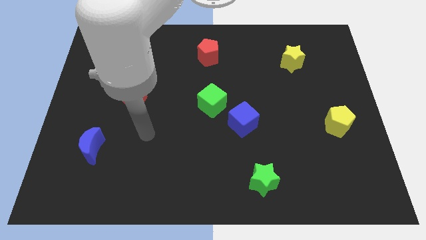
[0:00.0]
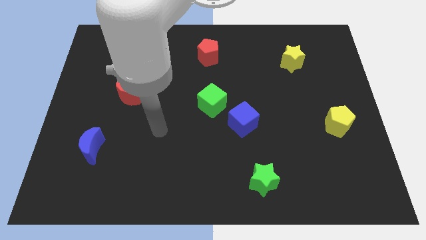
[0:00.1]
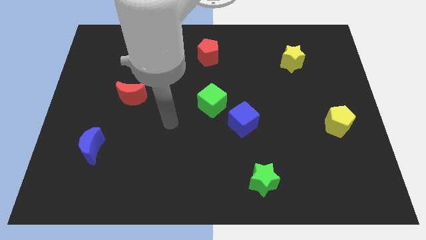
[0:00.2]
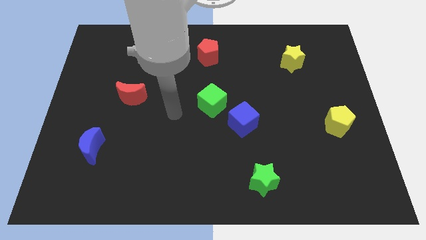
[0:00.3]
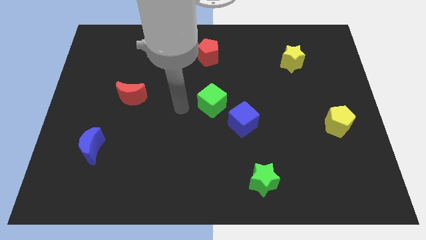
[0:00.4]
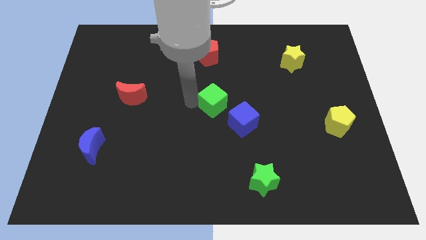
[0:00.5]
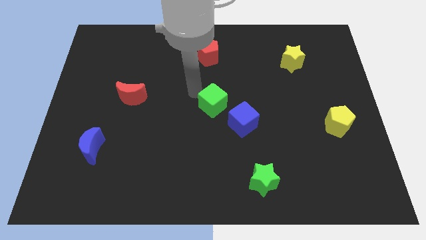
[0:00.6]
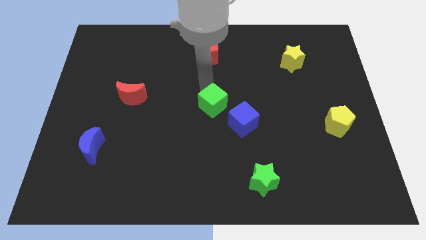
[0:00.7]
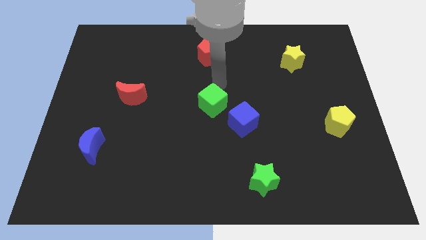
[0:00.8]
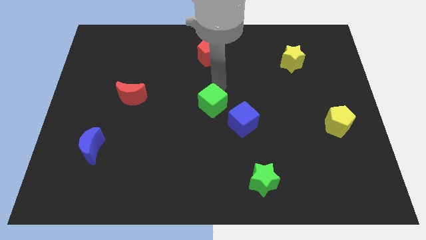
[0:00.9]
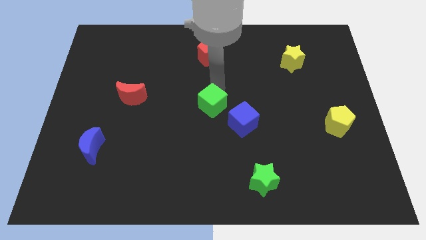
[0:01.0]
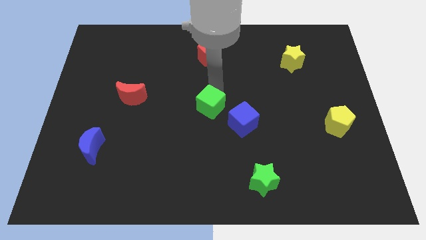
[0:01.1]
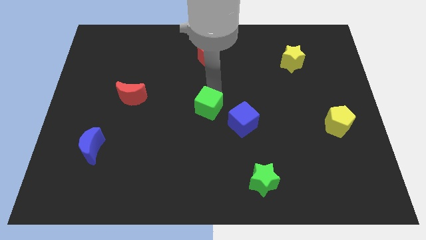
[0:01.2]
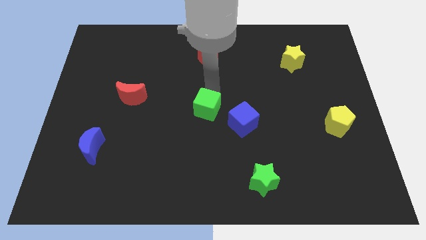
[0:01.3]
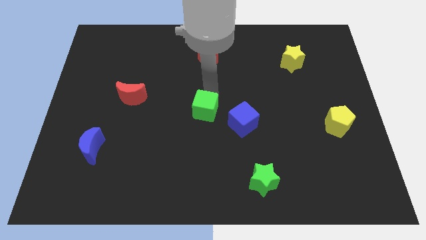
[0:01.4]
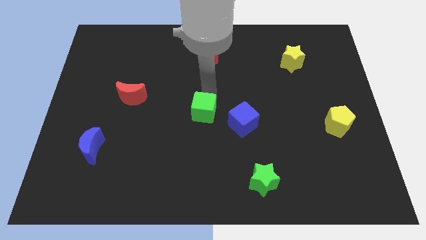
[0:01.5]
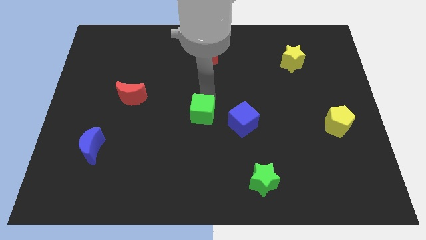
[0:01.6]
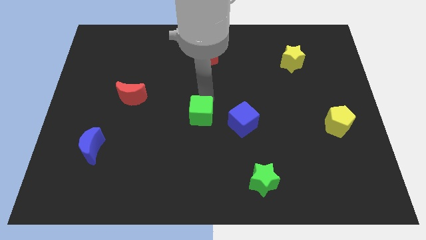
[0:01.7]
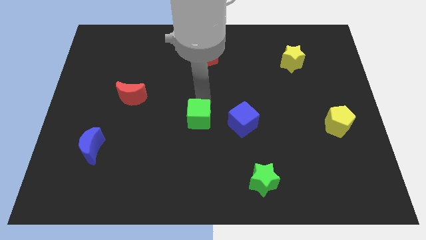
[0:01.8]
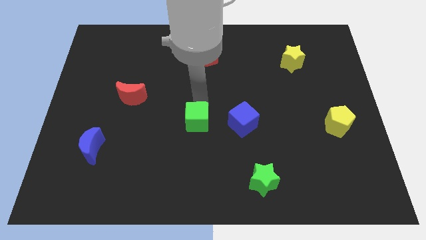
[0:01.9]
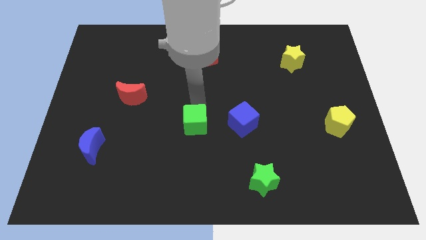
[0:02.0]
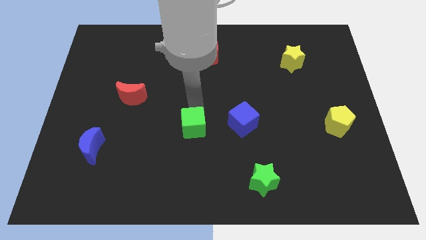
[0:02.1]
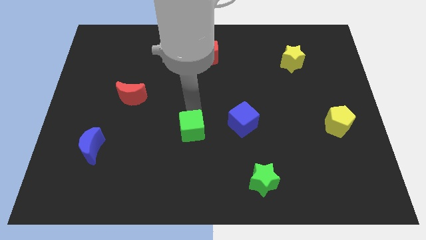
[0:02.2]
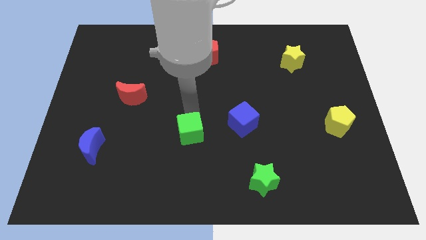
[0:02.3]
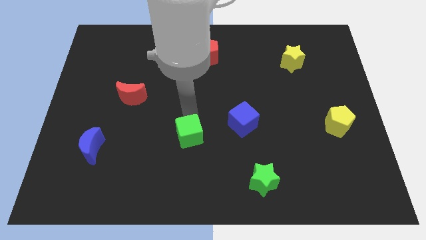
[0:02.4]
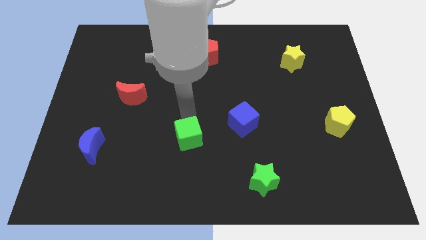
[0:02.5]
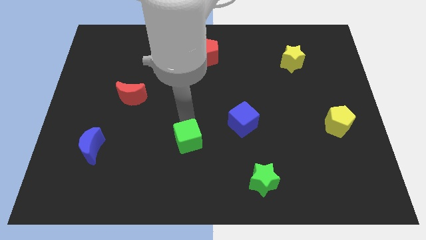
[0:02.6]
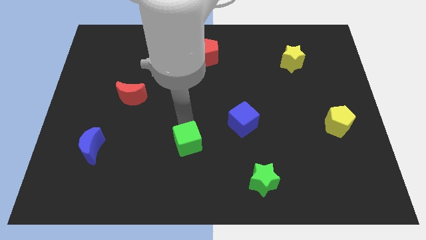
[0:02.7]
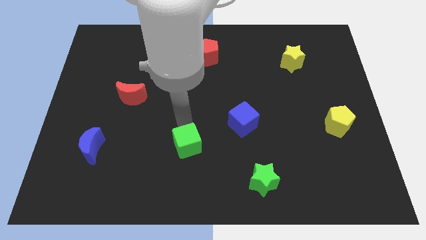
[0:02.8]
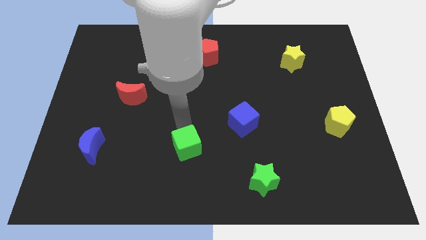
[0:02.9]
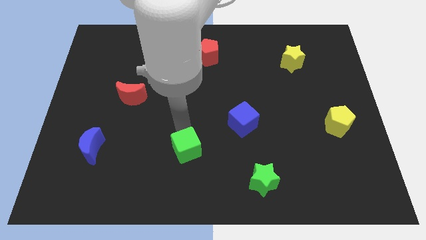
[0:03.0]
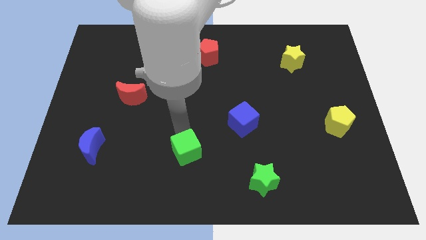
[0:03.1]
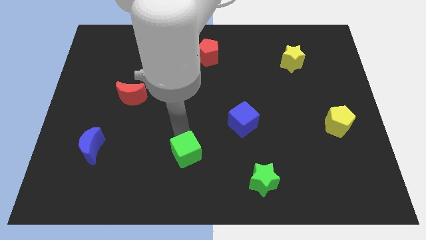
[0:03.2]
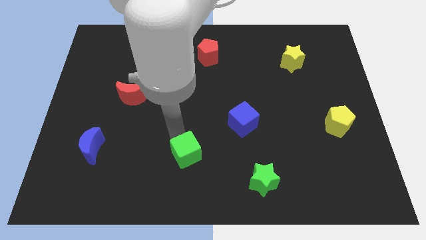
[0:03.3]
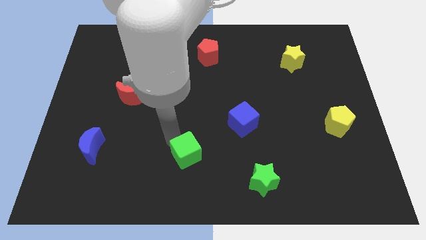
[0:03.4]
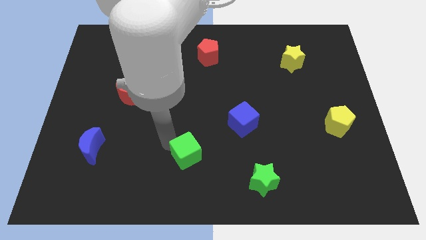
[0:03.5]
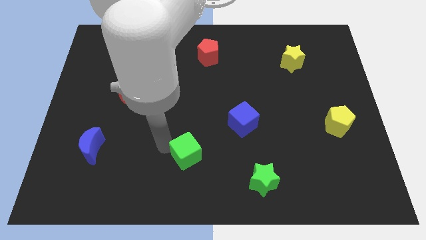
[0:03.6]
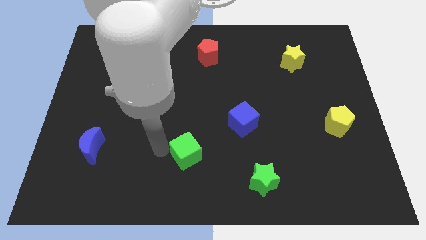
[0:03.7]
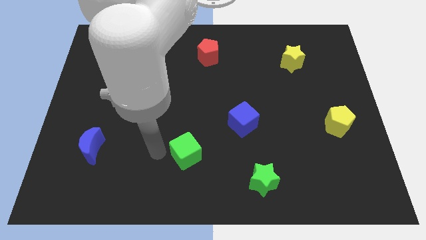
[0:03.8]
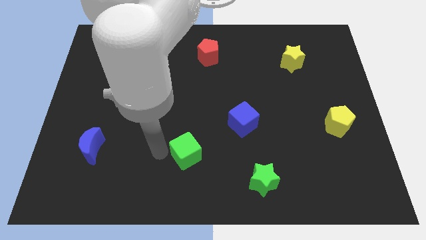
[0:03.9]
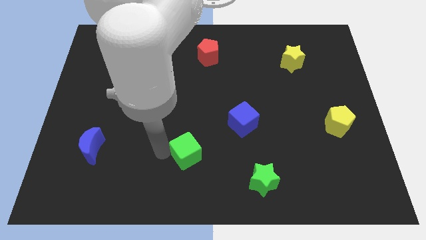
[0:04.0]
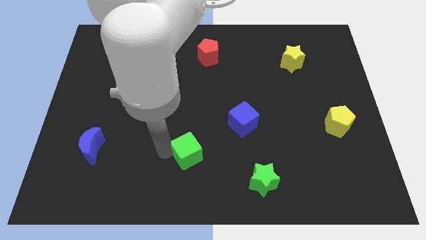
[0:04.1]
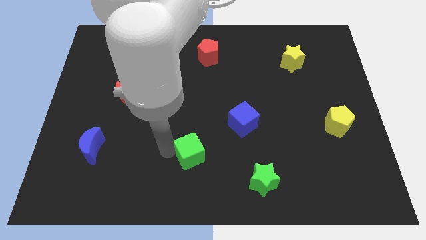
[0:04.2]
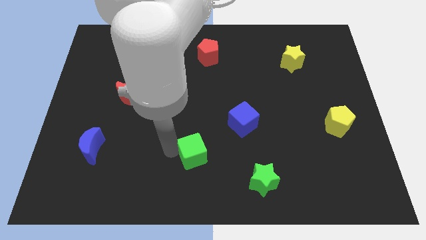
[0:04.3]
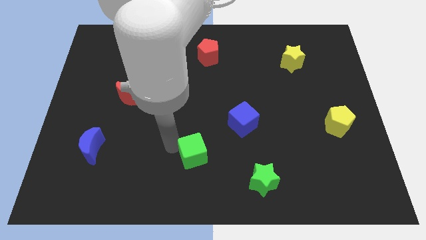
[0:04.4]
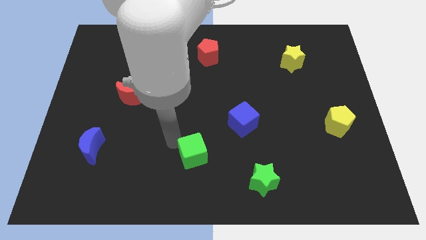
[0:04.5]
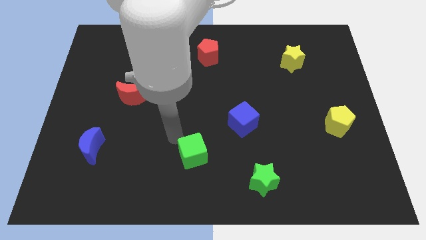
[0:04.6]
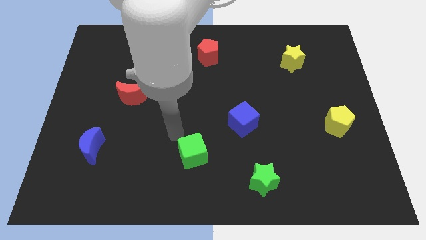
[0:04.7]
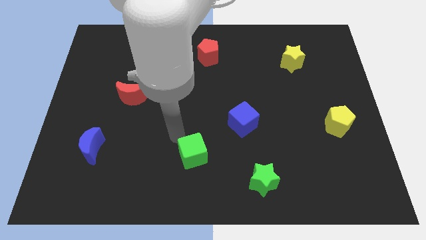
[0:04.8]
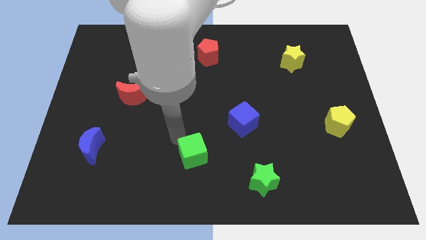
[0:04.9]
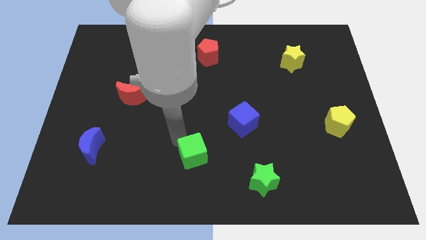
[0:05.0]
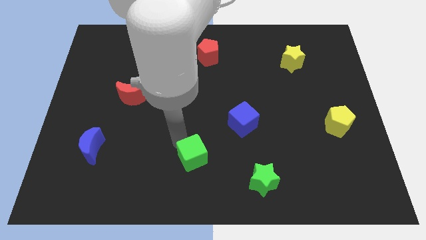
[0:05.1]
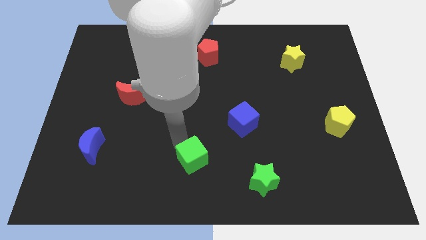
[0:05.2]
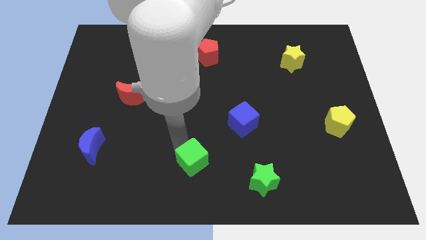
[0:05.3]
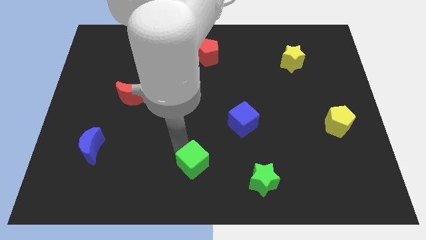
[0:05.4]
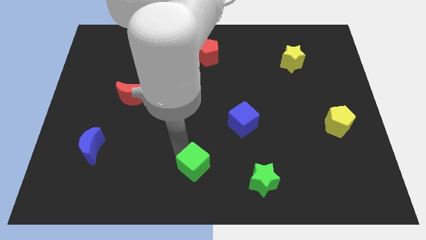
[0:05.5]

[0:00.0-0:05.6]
slide the green cube left of the green star

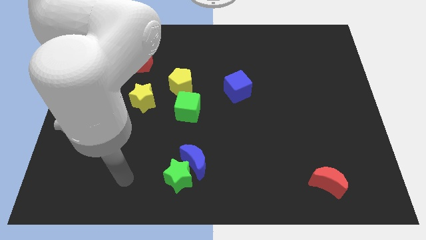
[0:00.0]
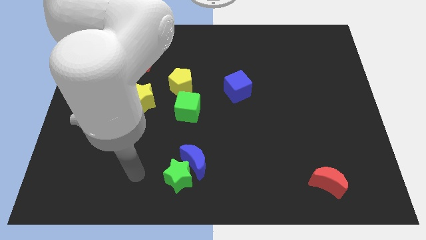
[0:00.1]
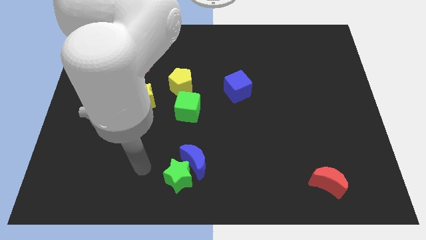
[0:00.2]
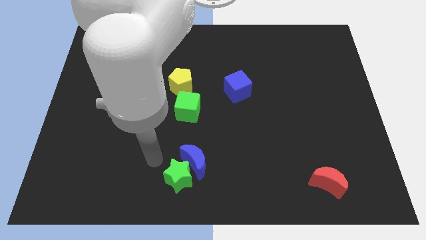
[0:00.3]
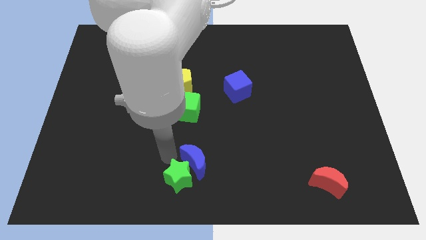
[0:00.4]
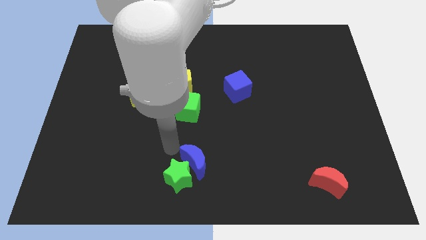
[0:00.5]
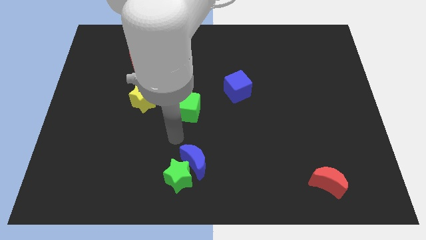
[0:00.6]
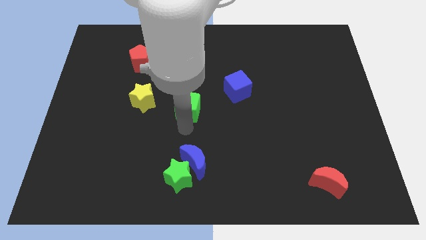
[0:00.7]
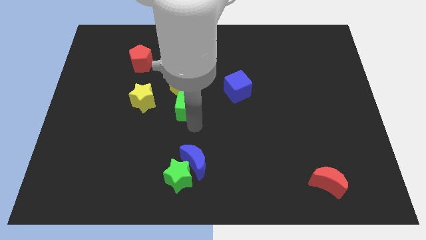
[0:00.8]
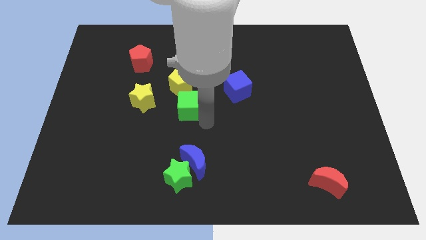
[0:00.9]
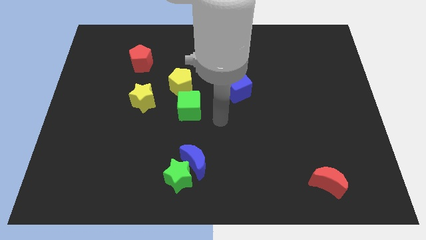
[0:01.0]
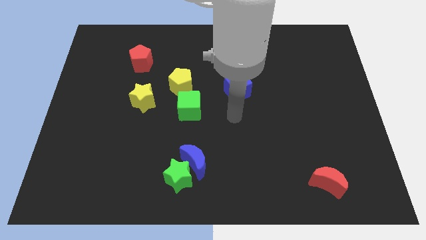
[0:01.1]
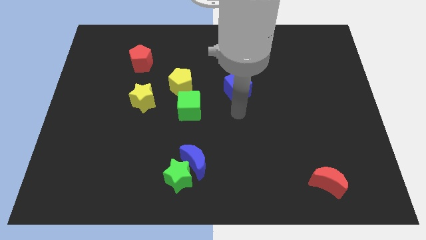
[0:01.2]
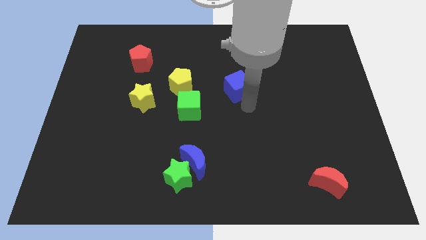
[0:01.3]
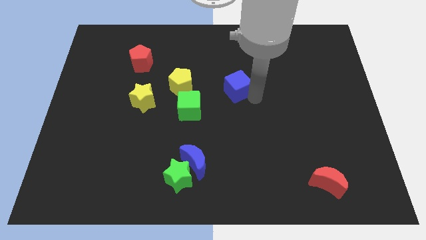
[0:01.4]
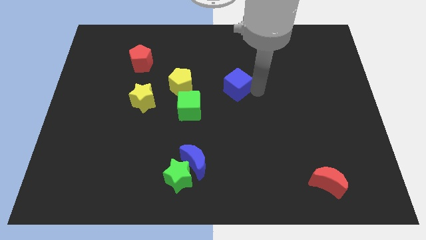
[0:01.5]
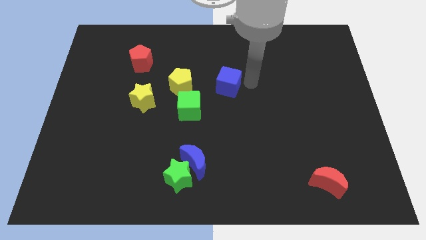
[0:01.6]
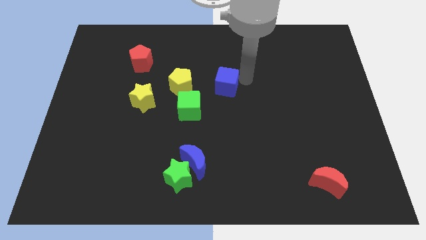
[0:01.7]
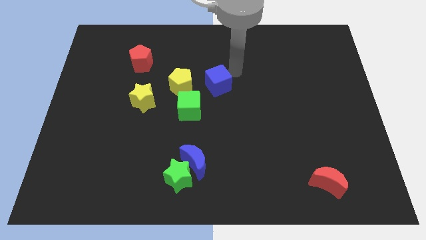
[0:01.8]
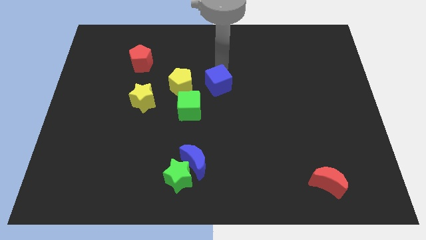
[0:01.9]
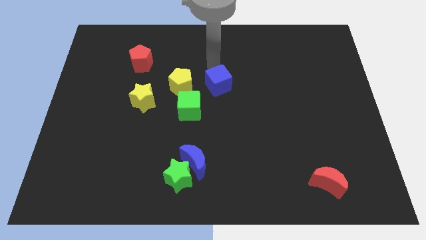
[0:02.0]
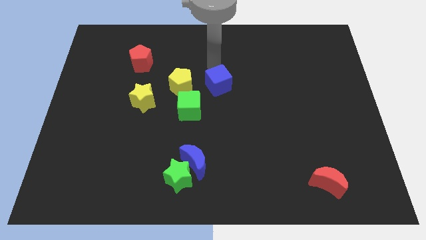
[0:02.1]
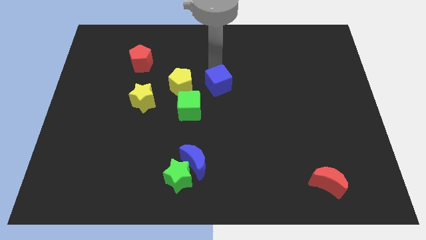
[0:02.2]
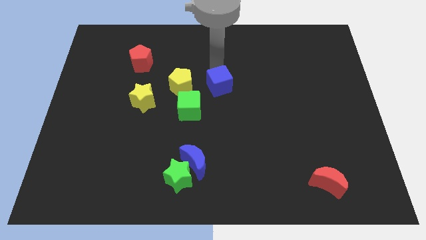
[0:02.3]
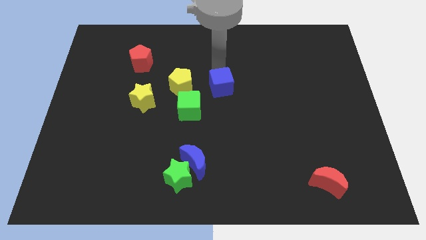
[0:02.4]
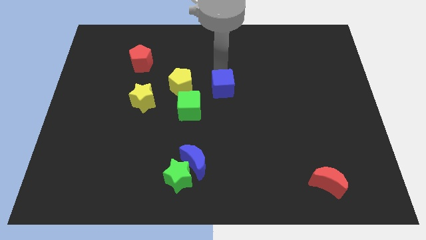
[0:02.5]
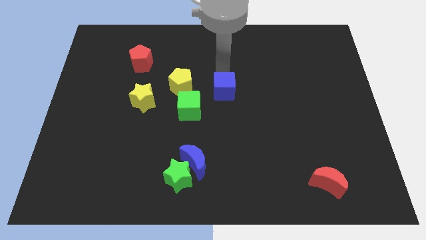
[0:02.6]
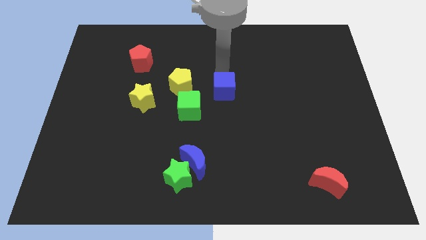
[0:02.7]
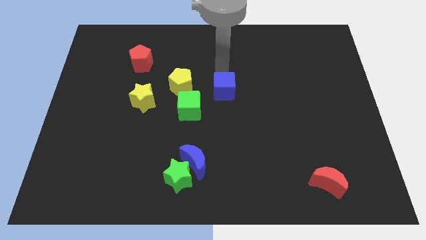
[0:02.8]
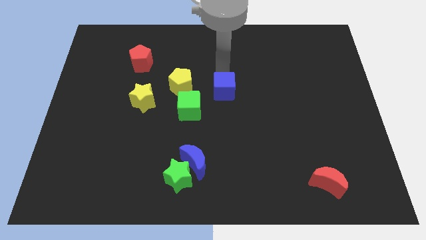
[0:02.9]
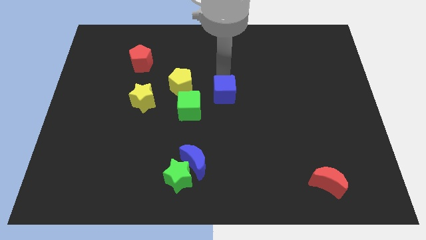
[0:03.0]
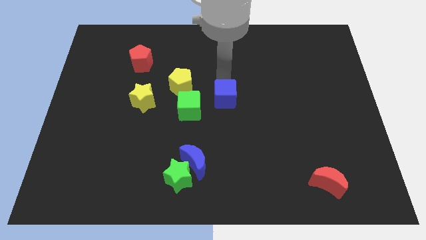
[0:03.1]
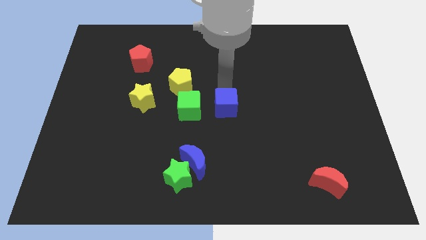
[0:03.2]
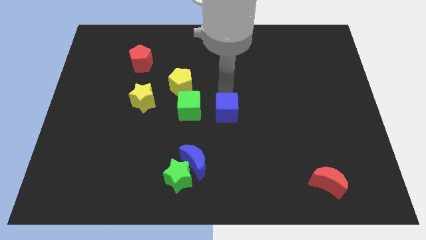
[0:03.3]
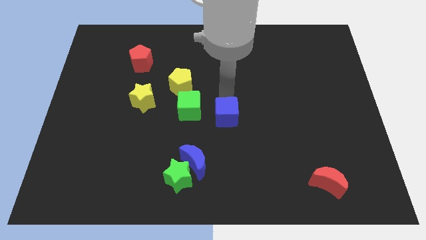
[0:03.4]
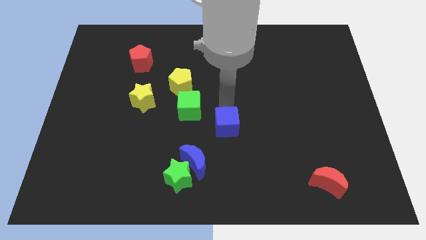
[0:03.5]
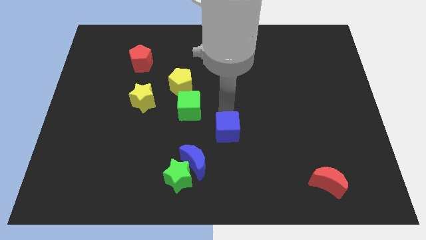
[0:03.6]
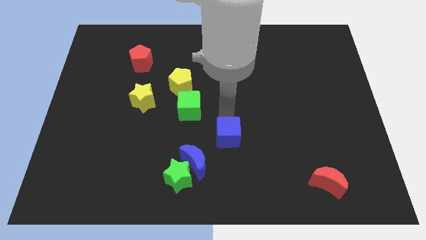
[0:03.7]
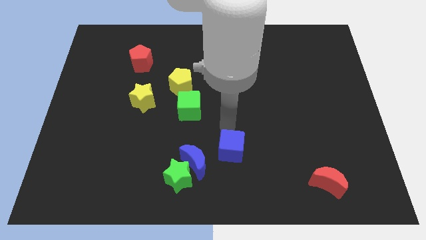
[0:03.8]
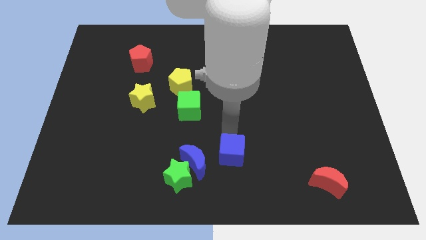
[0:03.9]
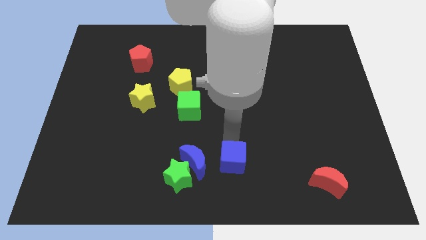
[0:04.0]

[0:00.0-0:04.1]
put the blue cube to the right of the green star
